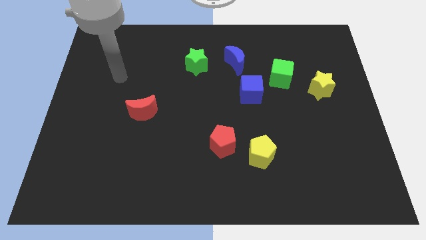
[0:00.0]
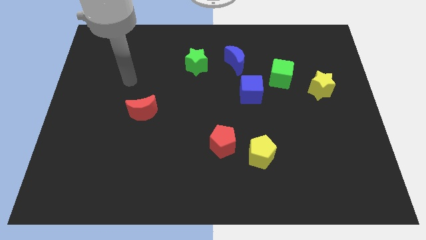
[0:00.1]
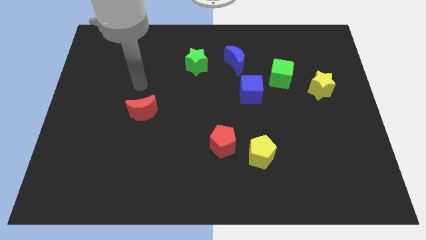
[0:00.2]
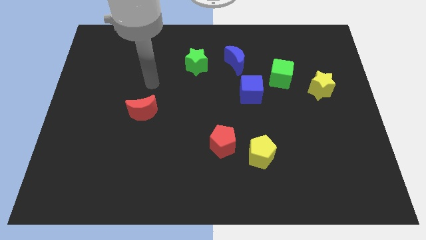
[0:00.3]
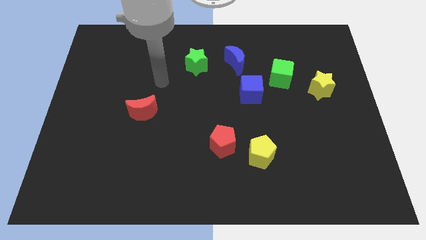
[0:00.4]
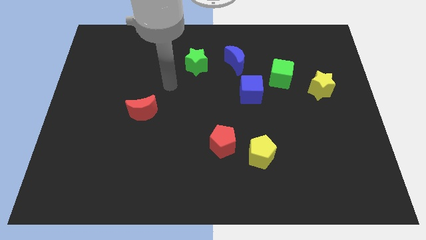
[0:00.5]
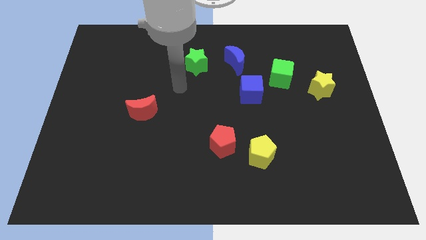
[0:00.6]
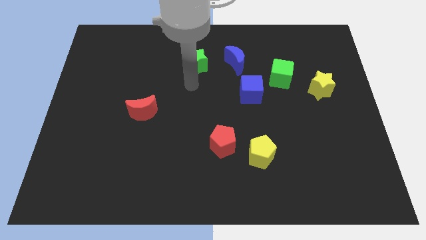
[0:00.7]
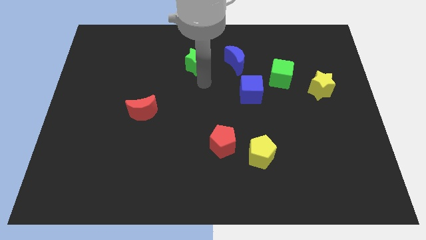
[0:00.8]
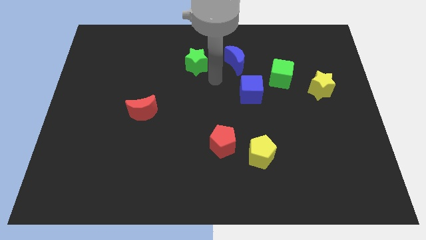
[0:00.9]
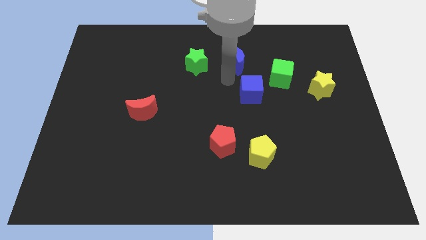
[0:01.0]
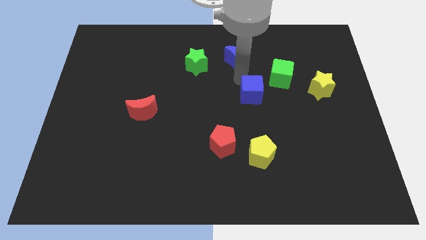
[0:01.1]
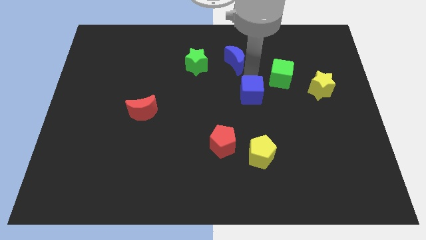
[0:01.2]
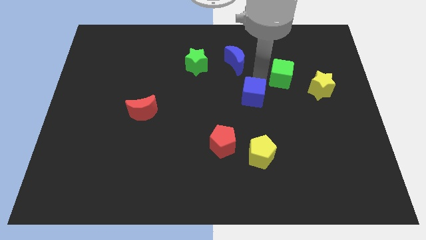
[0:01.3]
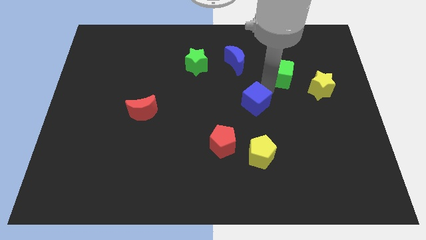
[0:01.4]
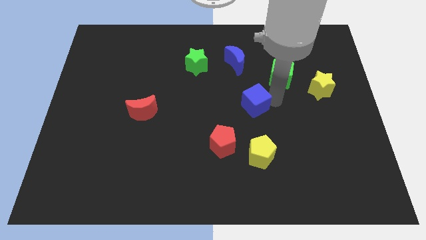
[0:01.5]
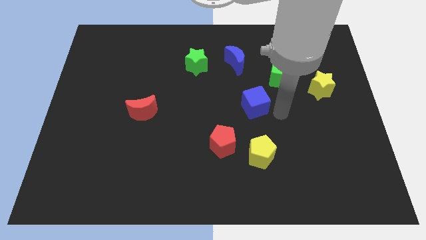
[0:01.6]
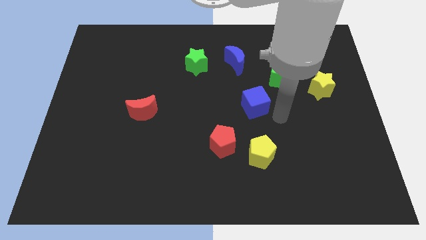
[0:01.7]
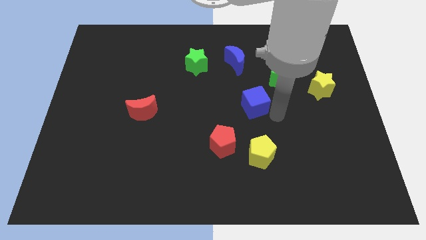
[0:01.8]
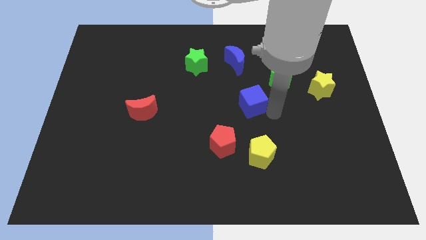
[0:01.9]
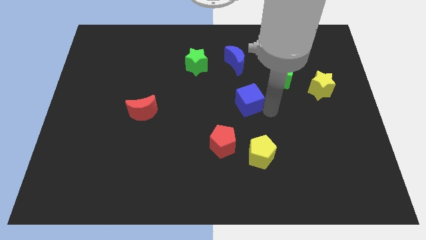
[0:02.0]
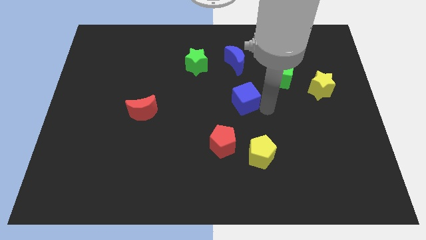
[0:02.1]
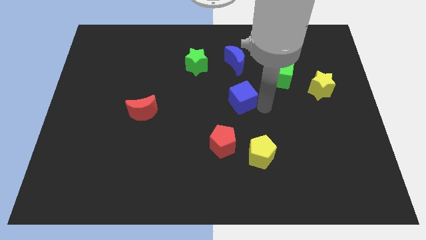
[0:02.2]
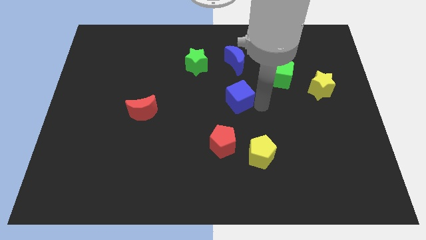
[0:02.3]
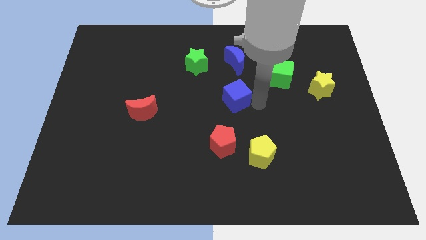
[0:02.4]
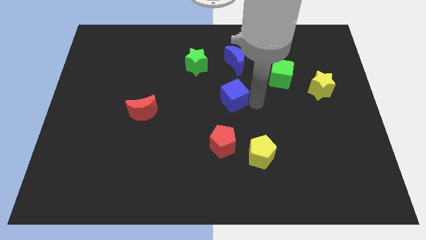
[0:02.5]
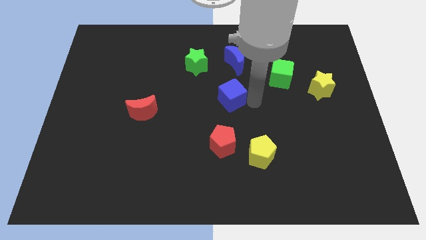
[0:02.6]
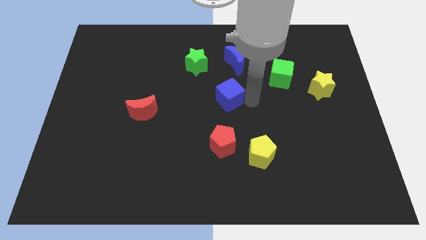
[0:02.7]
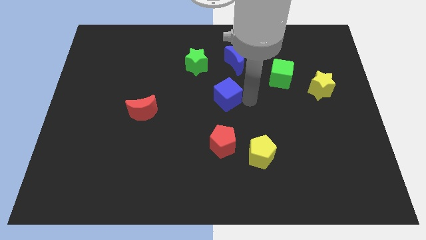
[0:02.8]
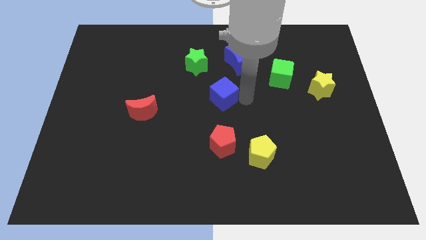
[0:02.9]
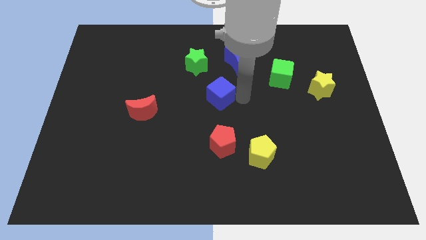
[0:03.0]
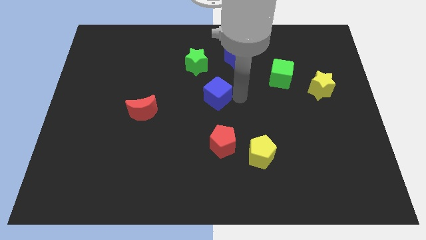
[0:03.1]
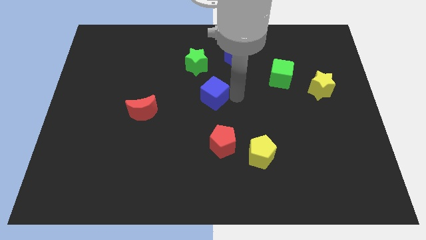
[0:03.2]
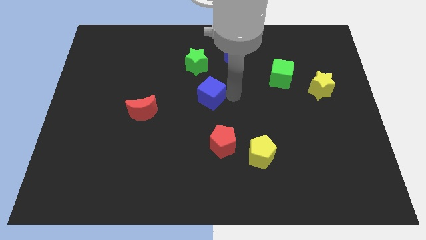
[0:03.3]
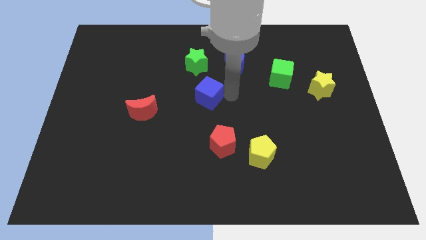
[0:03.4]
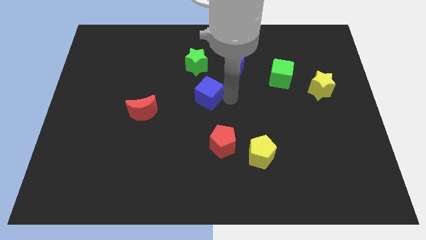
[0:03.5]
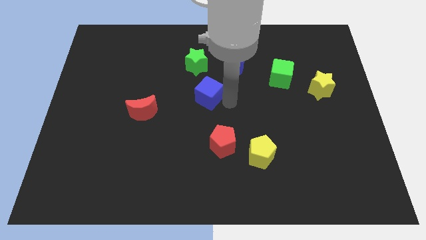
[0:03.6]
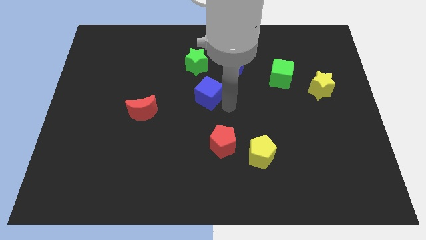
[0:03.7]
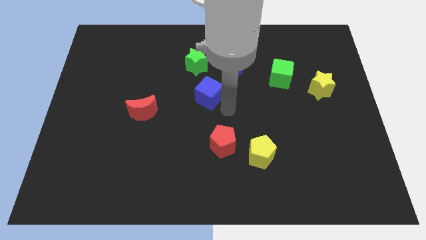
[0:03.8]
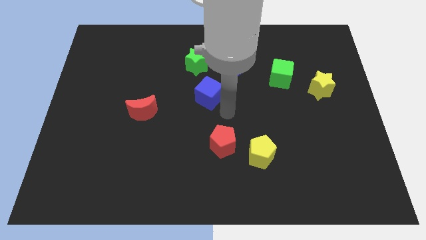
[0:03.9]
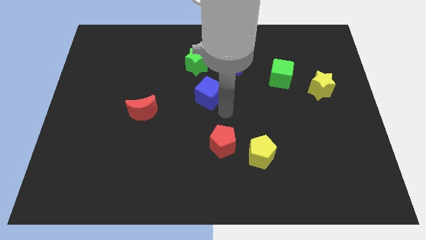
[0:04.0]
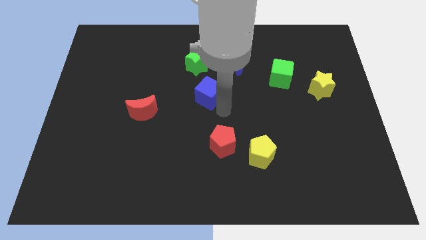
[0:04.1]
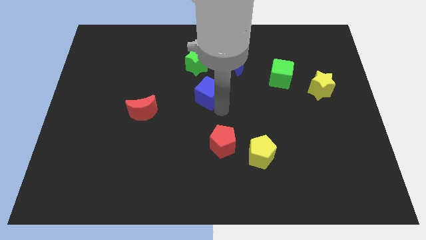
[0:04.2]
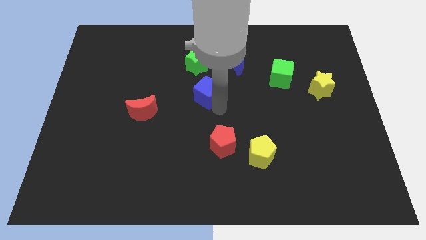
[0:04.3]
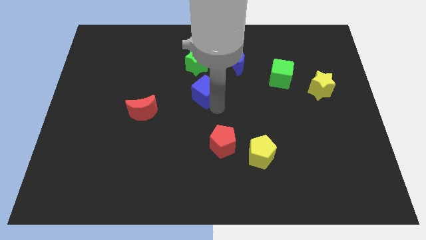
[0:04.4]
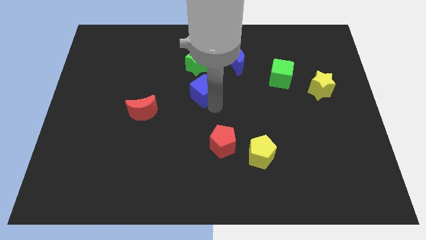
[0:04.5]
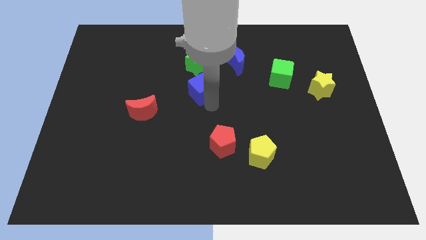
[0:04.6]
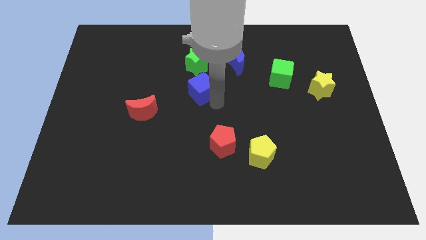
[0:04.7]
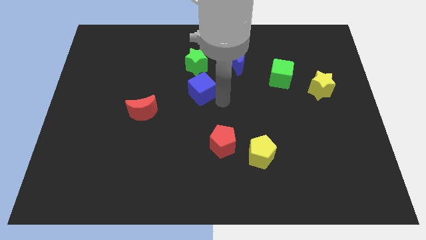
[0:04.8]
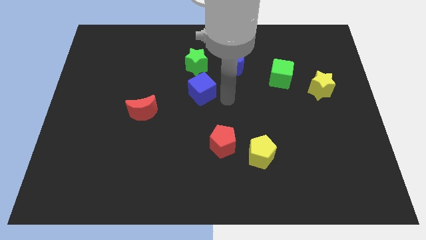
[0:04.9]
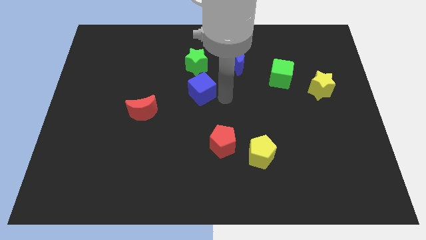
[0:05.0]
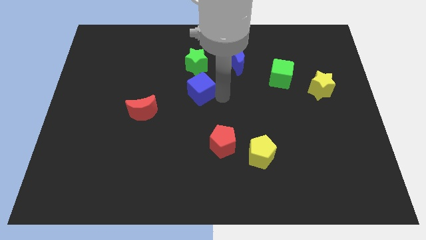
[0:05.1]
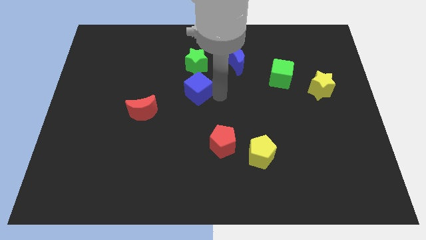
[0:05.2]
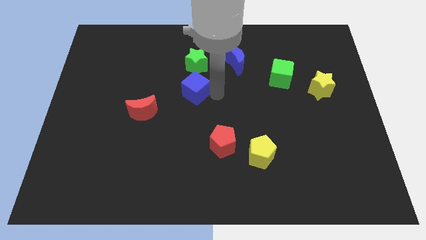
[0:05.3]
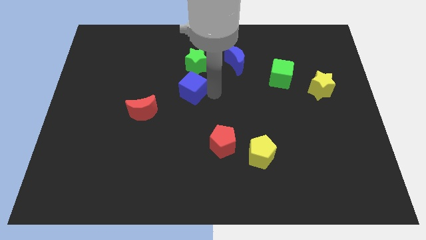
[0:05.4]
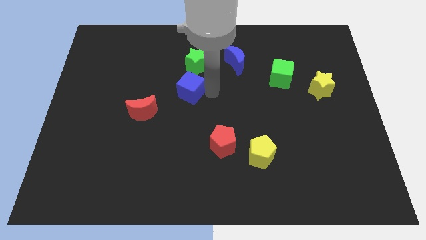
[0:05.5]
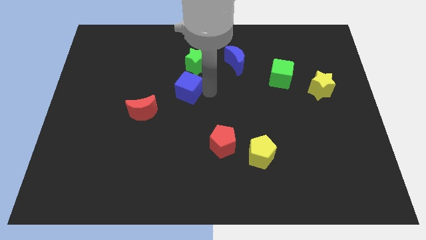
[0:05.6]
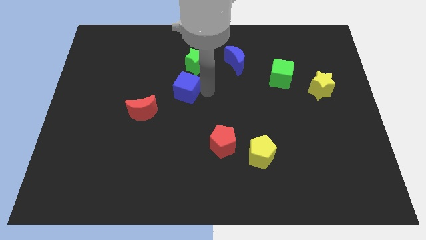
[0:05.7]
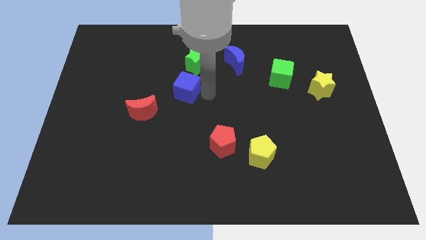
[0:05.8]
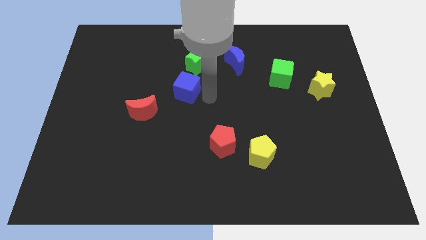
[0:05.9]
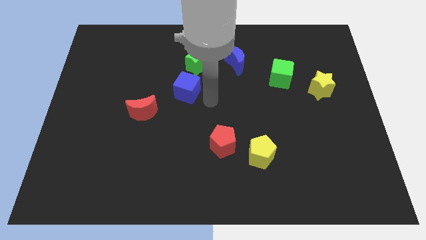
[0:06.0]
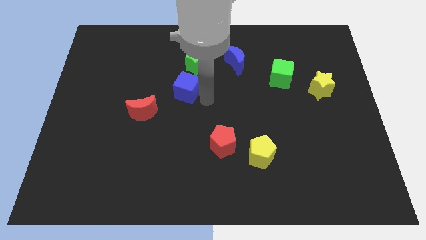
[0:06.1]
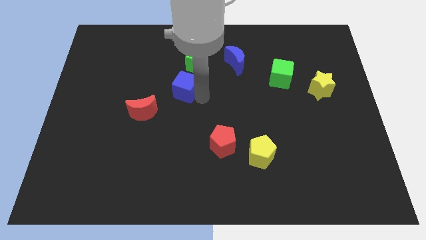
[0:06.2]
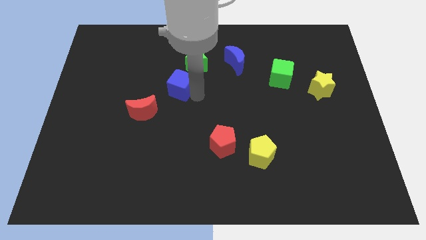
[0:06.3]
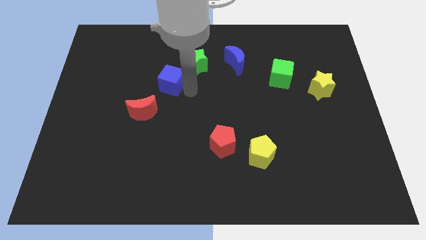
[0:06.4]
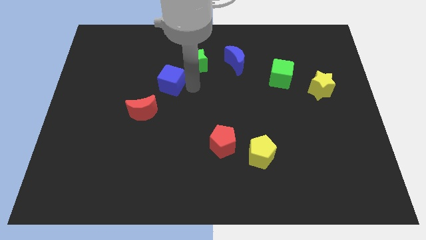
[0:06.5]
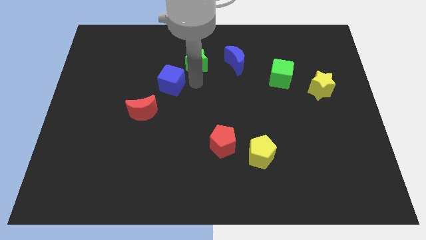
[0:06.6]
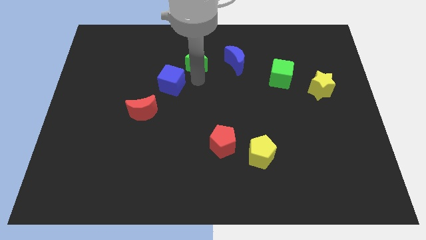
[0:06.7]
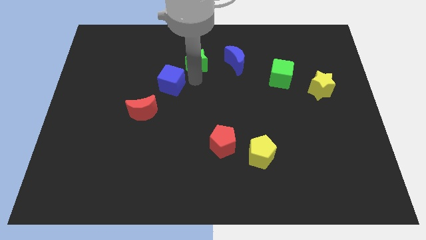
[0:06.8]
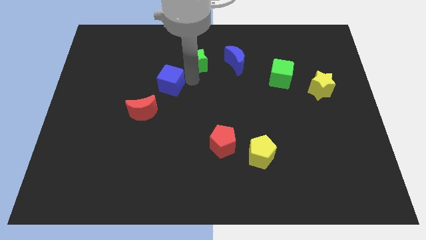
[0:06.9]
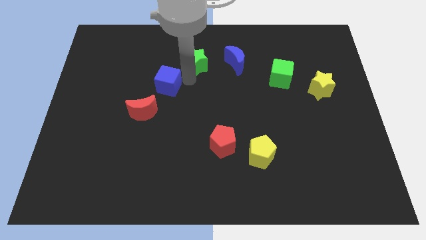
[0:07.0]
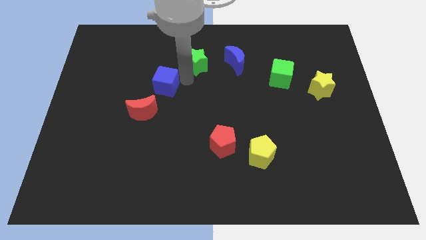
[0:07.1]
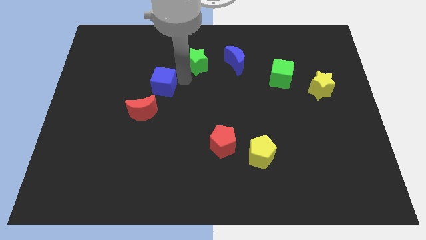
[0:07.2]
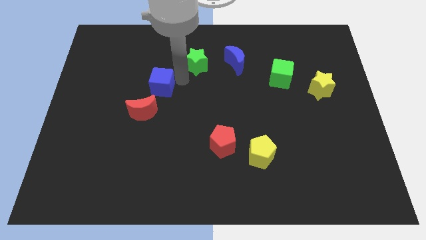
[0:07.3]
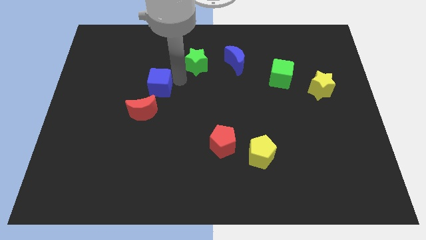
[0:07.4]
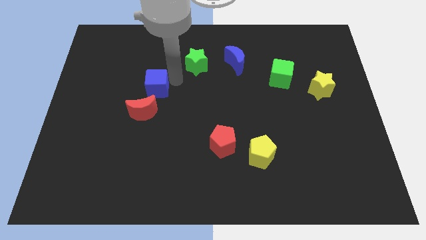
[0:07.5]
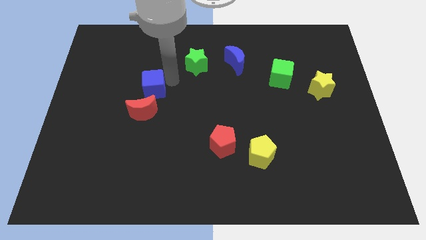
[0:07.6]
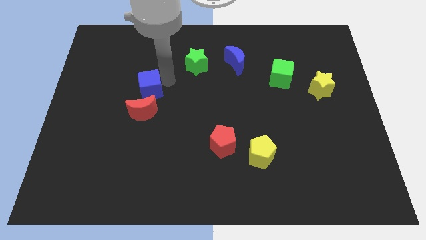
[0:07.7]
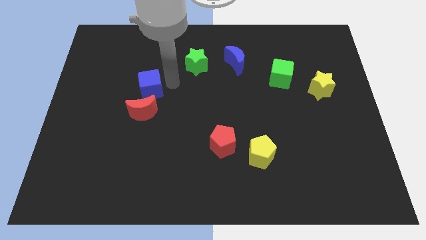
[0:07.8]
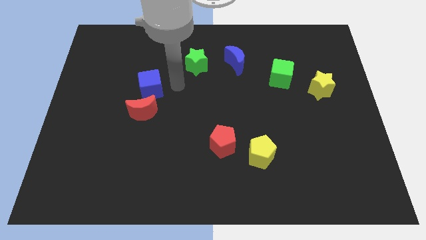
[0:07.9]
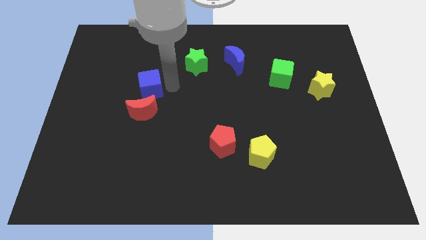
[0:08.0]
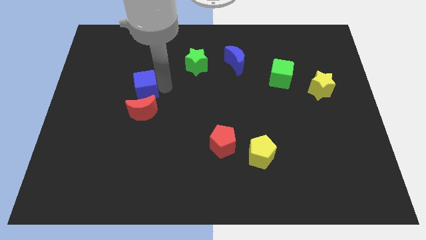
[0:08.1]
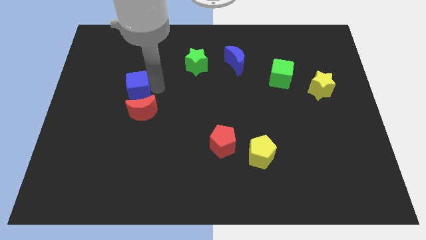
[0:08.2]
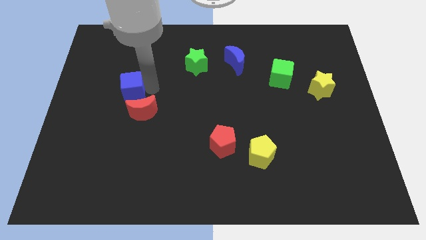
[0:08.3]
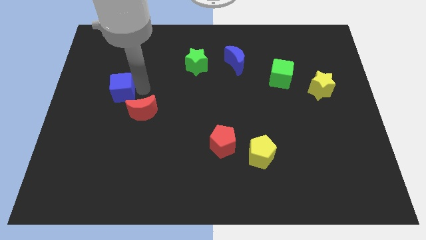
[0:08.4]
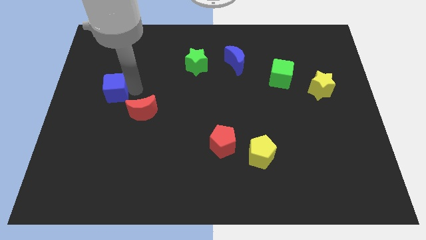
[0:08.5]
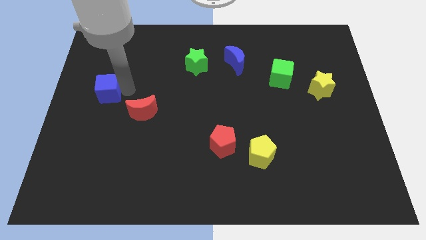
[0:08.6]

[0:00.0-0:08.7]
slide the blue cube to the left side of the board
